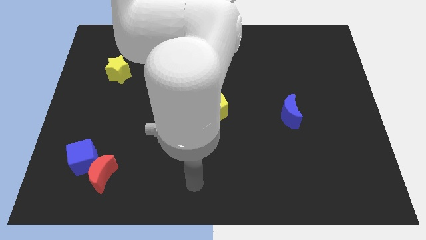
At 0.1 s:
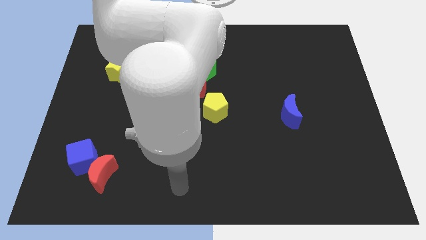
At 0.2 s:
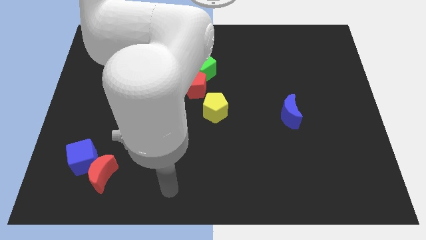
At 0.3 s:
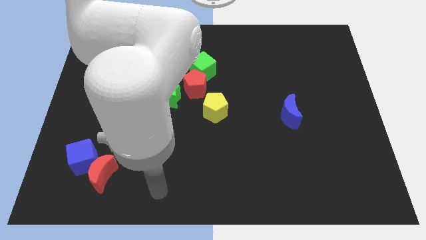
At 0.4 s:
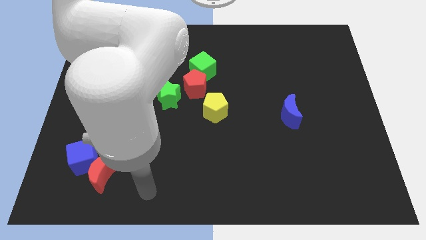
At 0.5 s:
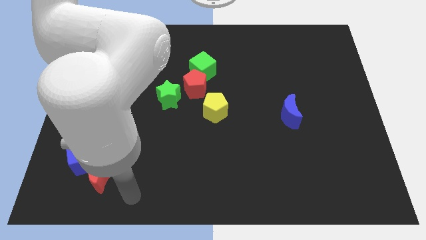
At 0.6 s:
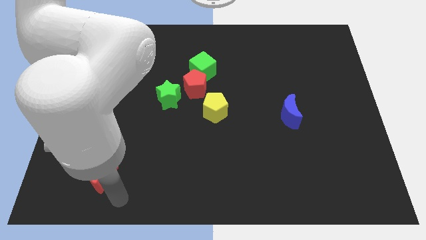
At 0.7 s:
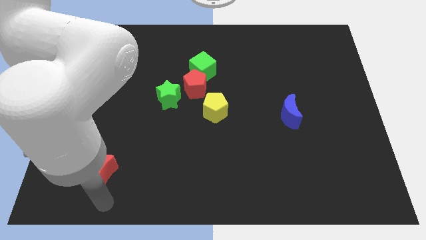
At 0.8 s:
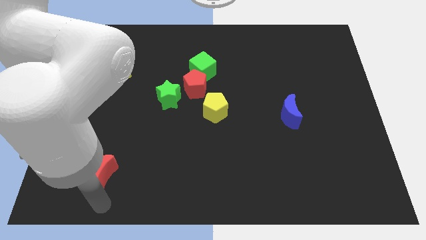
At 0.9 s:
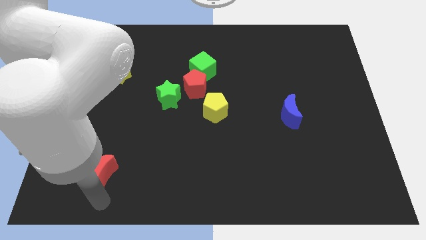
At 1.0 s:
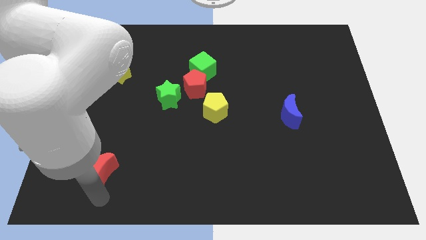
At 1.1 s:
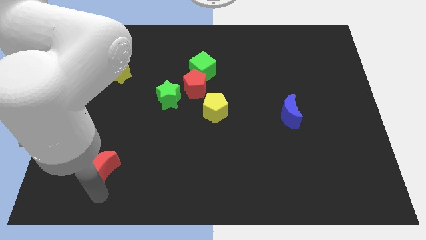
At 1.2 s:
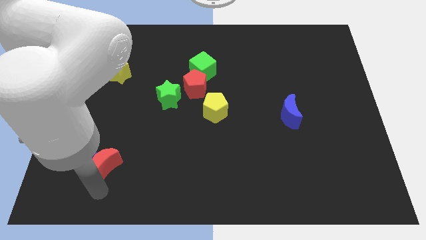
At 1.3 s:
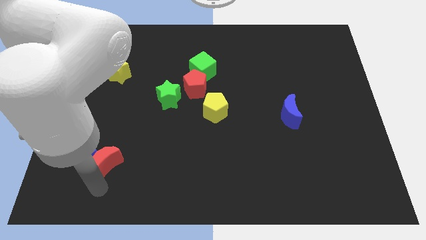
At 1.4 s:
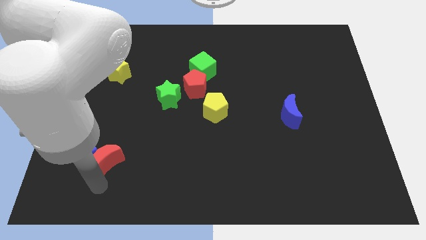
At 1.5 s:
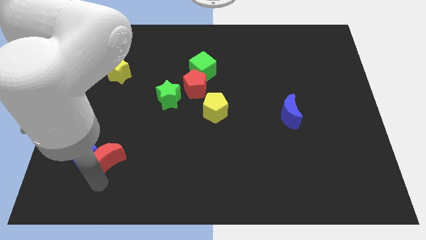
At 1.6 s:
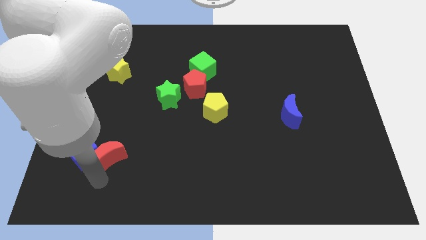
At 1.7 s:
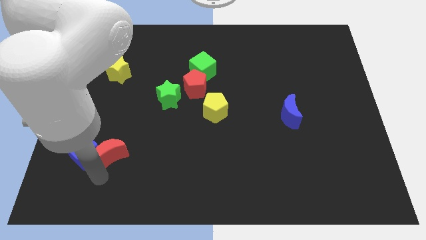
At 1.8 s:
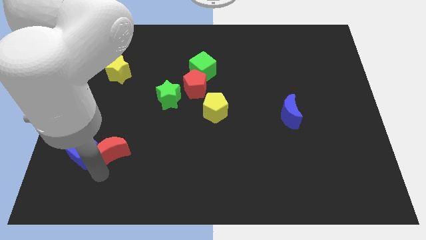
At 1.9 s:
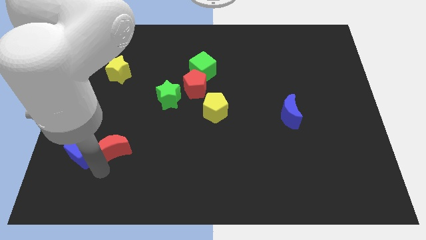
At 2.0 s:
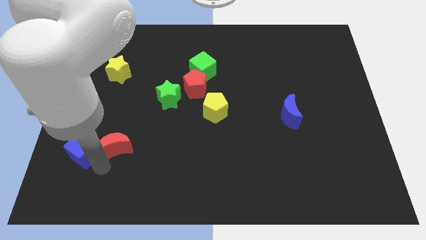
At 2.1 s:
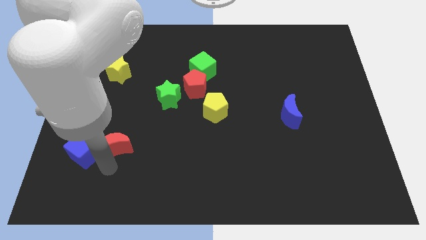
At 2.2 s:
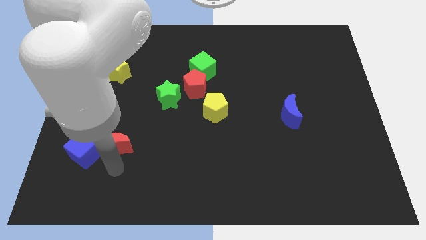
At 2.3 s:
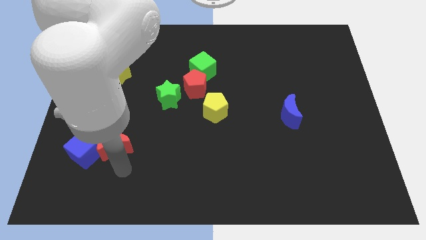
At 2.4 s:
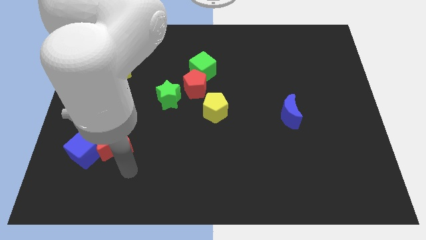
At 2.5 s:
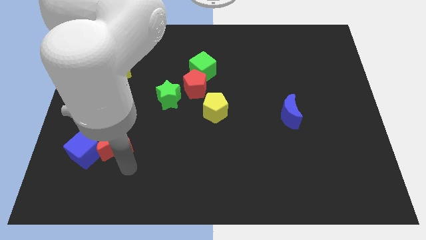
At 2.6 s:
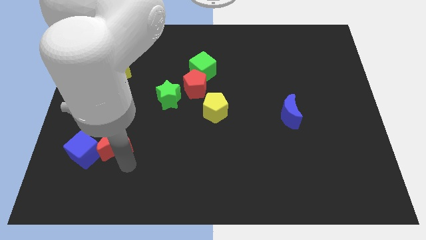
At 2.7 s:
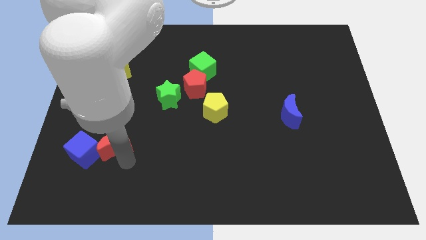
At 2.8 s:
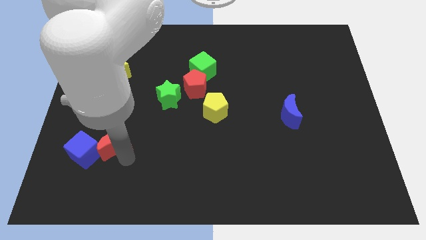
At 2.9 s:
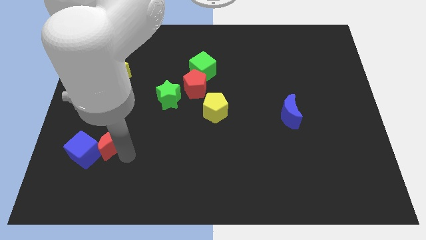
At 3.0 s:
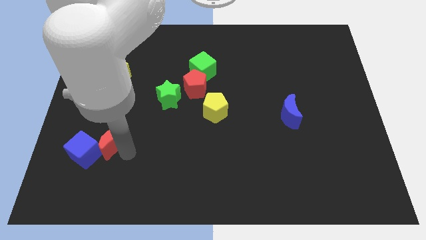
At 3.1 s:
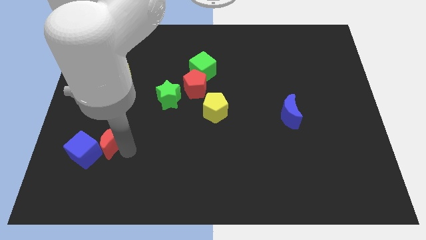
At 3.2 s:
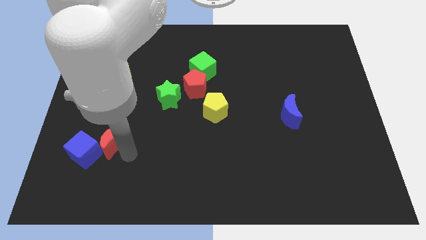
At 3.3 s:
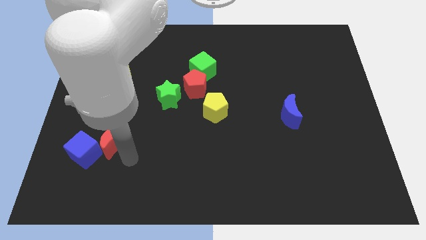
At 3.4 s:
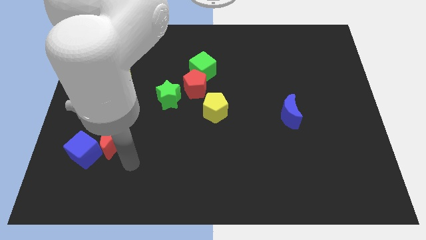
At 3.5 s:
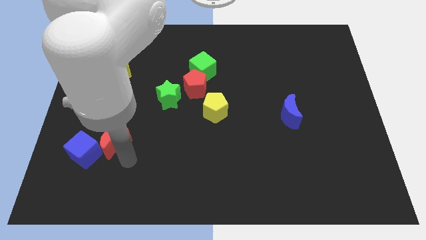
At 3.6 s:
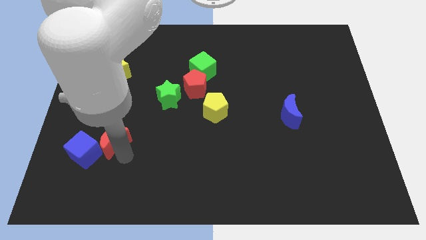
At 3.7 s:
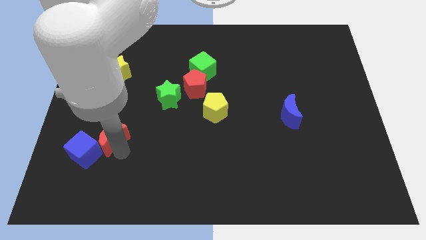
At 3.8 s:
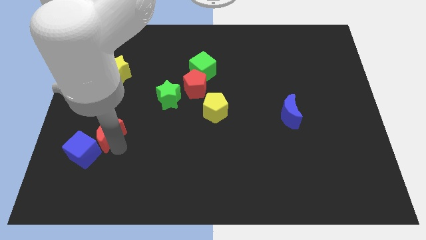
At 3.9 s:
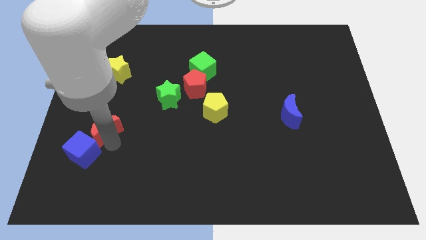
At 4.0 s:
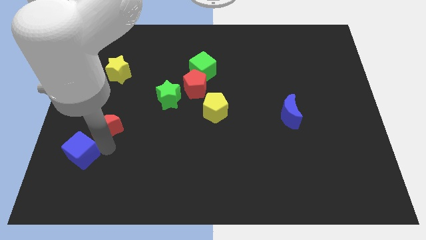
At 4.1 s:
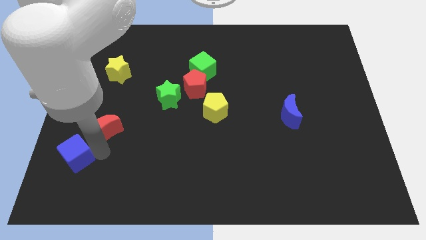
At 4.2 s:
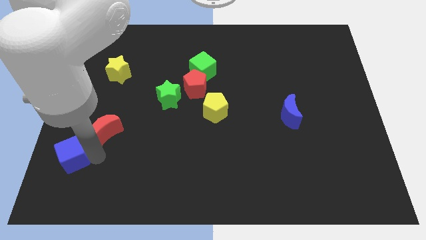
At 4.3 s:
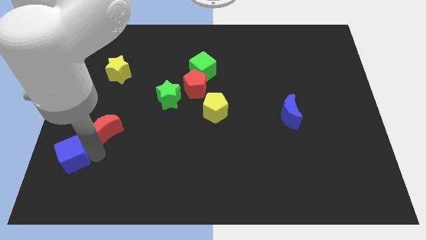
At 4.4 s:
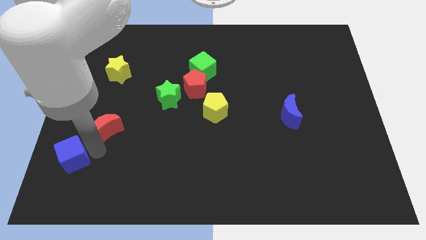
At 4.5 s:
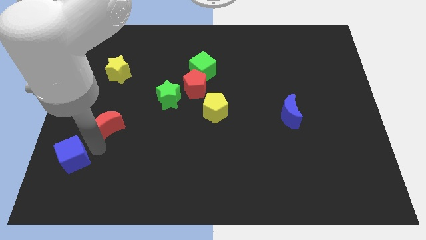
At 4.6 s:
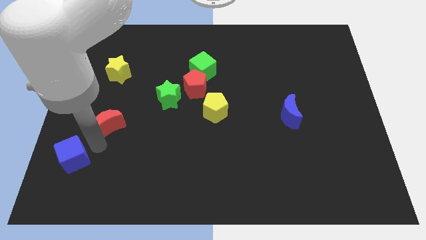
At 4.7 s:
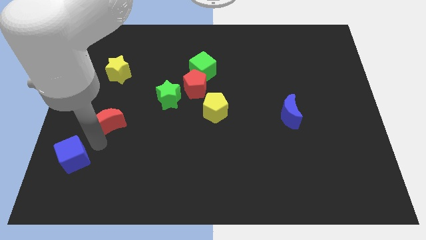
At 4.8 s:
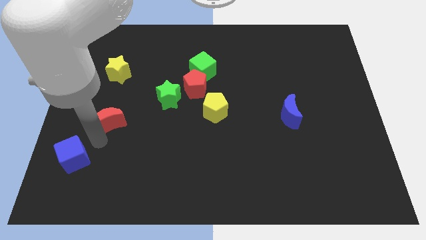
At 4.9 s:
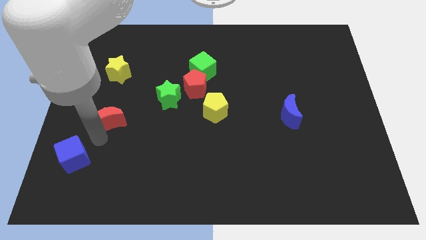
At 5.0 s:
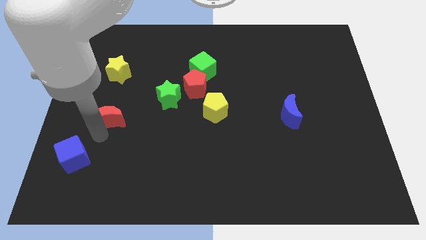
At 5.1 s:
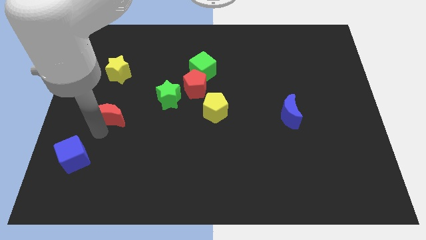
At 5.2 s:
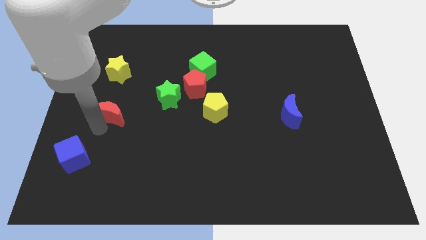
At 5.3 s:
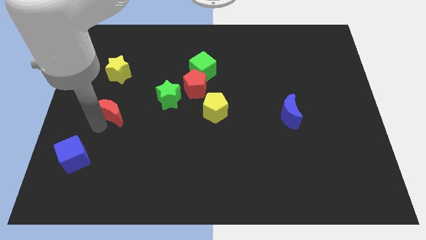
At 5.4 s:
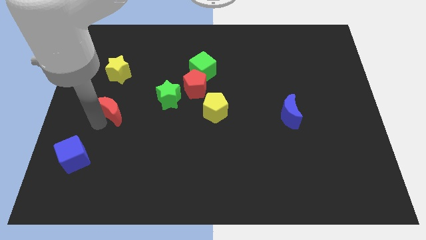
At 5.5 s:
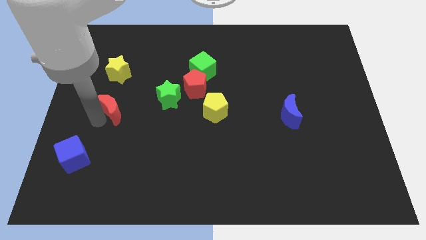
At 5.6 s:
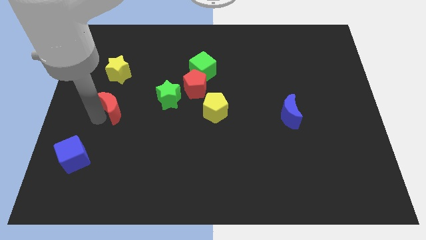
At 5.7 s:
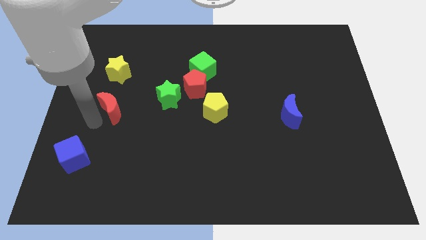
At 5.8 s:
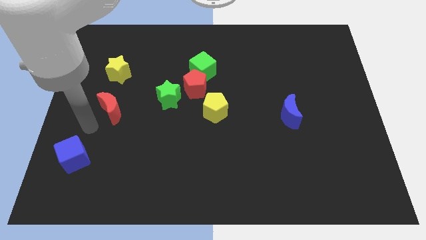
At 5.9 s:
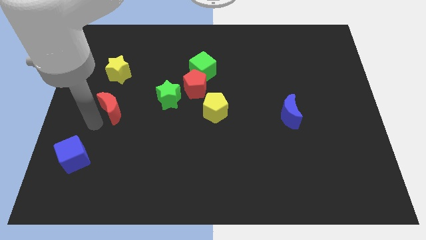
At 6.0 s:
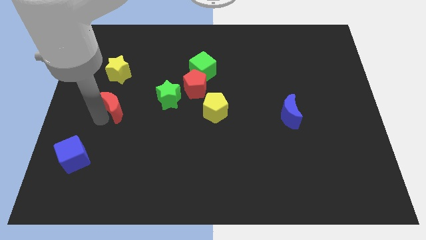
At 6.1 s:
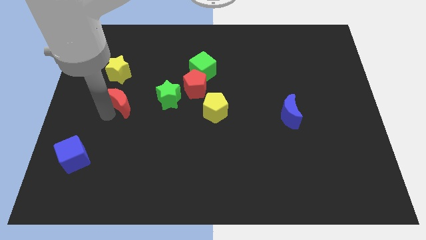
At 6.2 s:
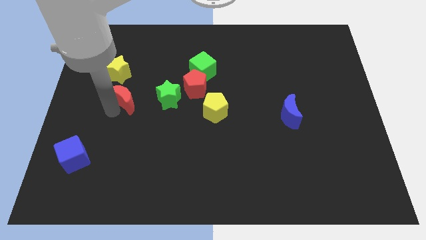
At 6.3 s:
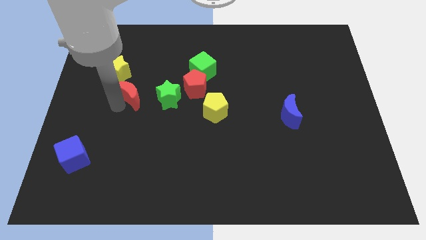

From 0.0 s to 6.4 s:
put the red moon just left of the red pentagon
